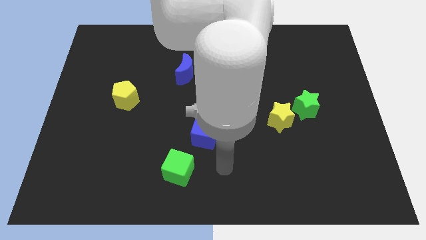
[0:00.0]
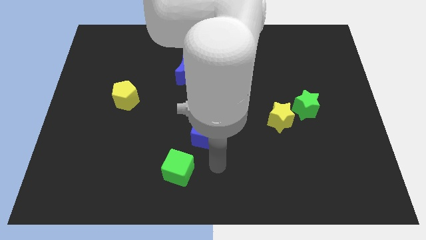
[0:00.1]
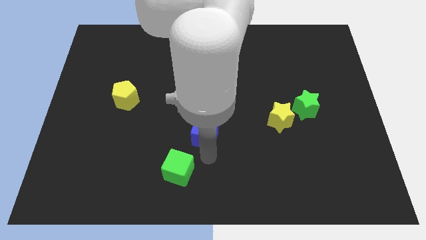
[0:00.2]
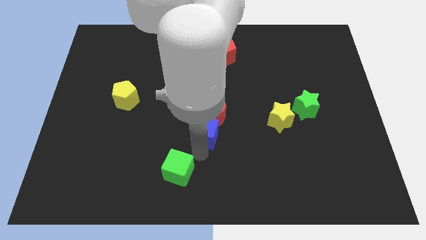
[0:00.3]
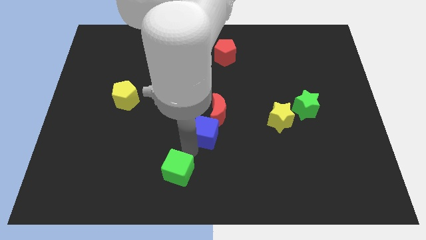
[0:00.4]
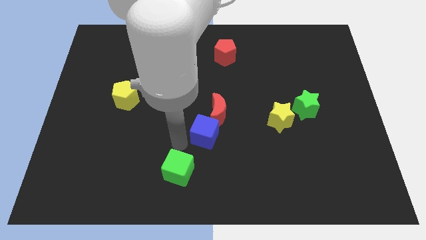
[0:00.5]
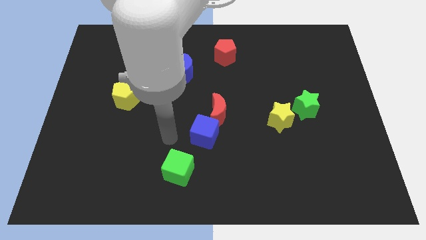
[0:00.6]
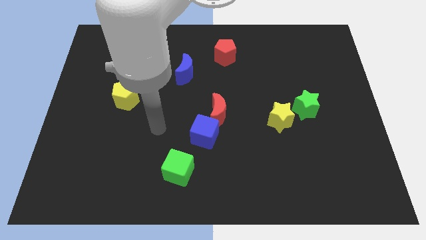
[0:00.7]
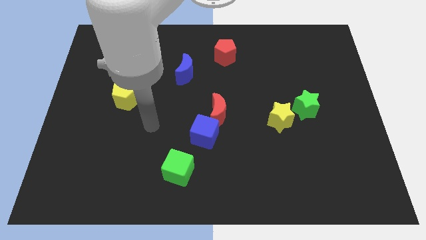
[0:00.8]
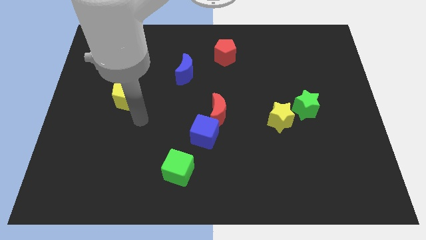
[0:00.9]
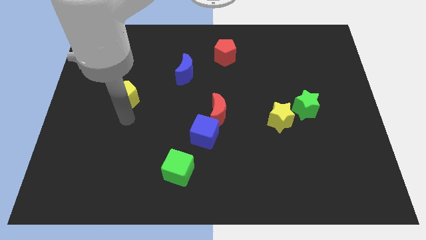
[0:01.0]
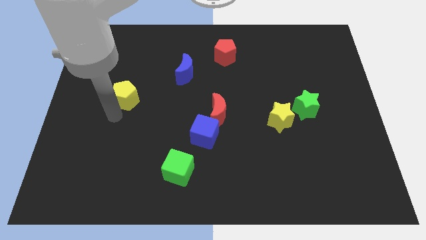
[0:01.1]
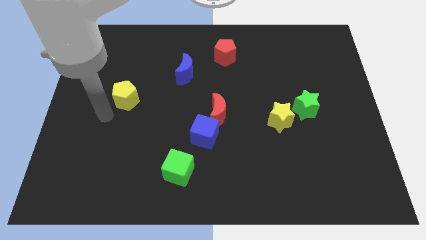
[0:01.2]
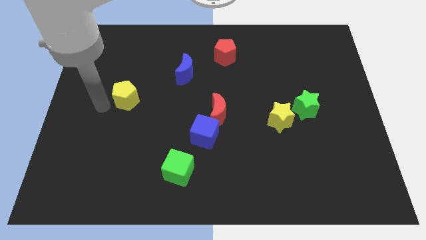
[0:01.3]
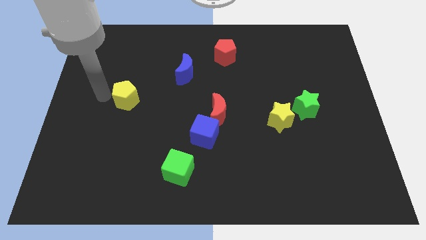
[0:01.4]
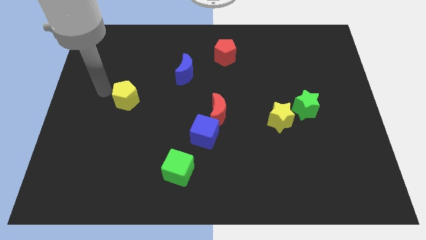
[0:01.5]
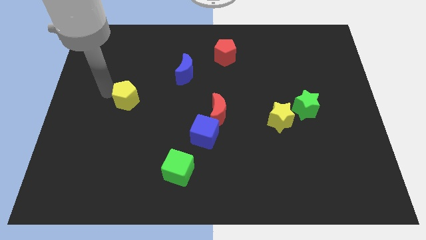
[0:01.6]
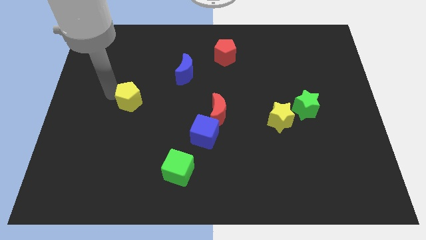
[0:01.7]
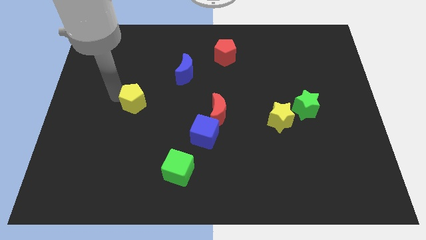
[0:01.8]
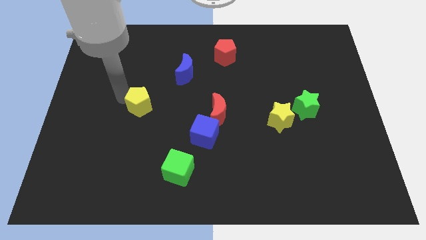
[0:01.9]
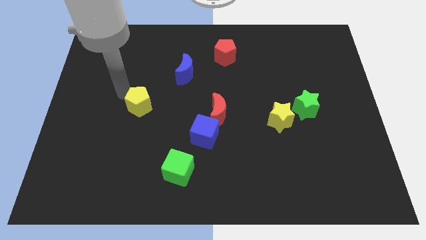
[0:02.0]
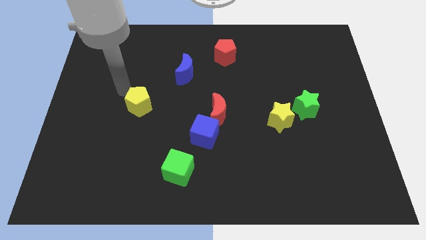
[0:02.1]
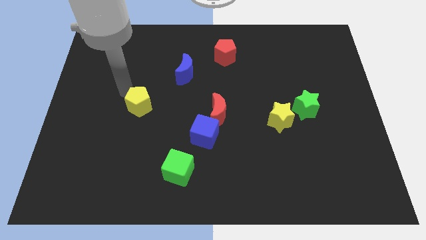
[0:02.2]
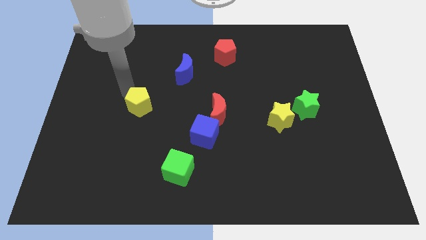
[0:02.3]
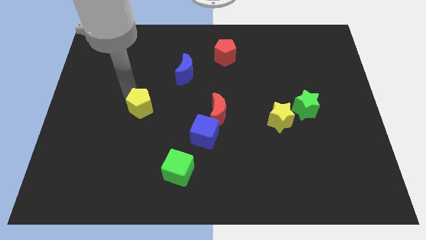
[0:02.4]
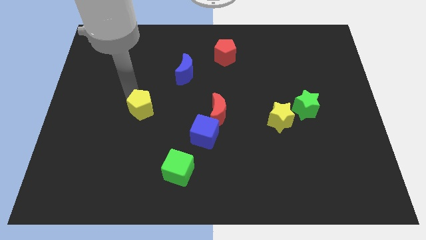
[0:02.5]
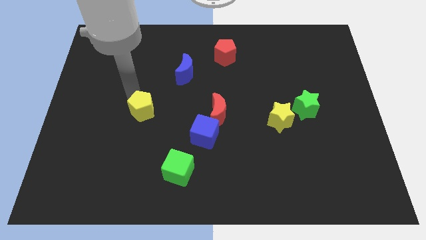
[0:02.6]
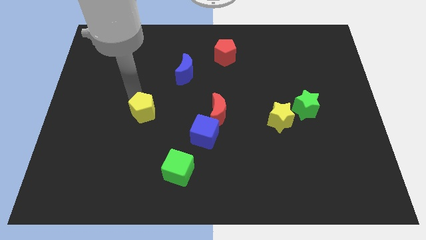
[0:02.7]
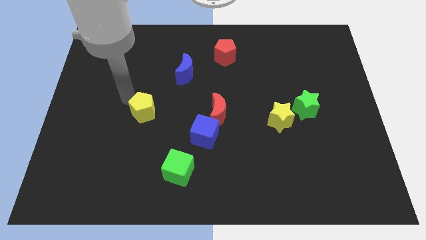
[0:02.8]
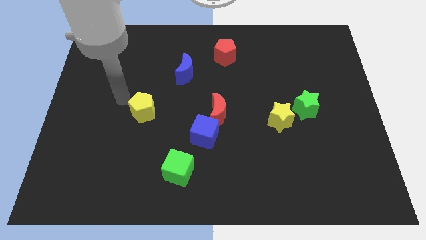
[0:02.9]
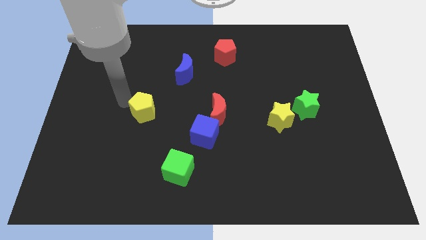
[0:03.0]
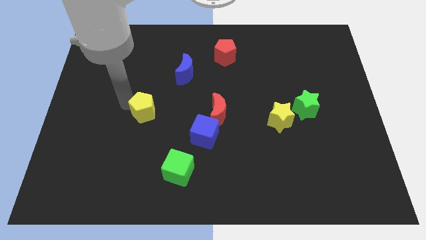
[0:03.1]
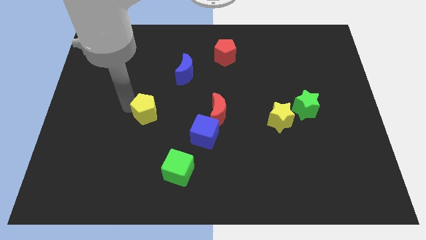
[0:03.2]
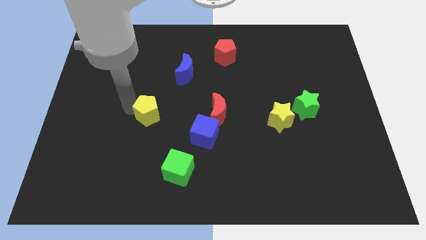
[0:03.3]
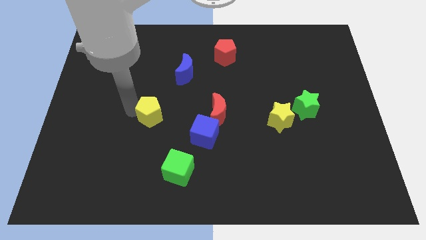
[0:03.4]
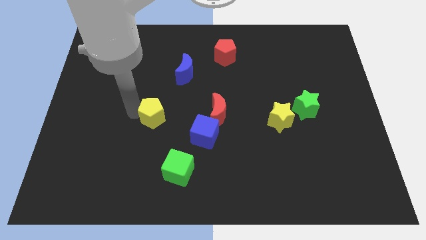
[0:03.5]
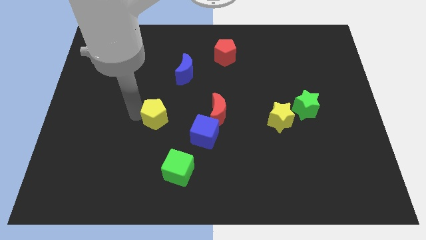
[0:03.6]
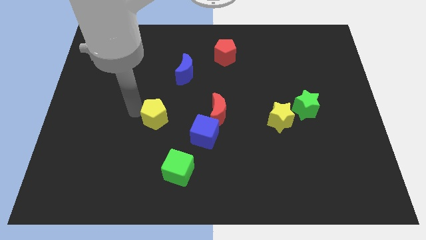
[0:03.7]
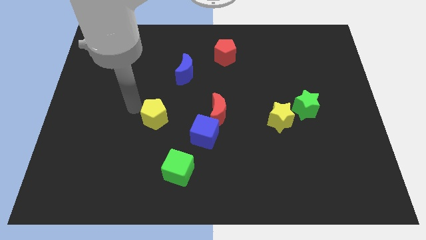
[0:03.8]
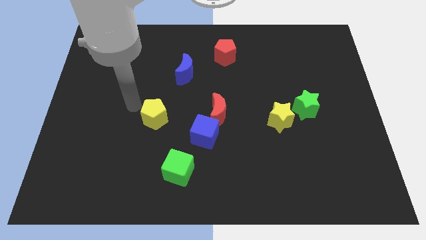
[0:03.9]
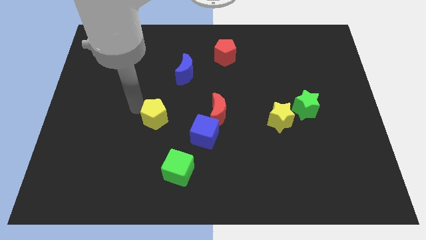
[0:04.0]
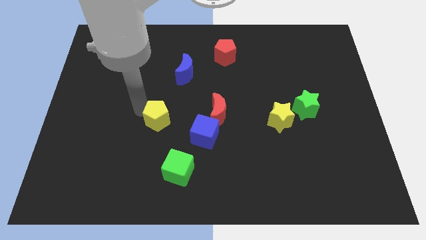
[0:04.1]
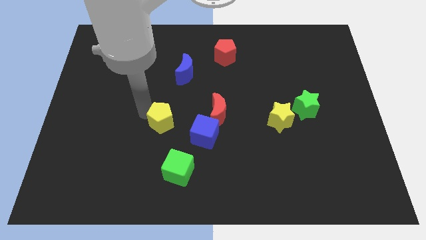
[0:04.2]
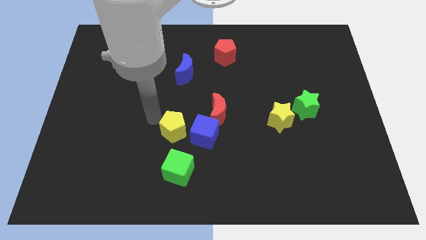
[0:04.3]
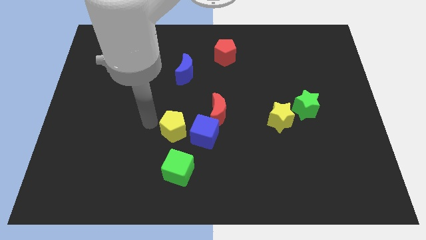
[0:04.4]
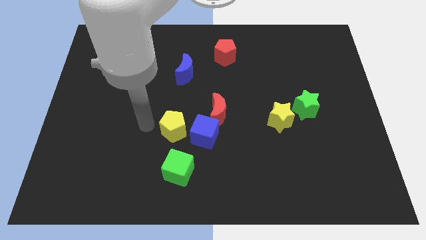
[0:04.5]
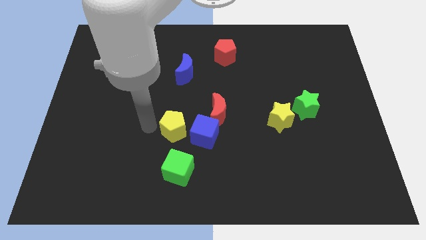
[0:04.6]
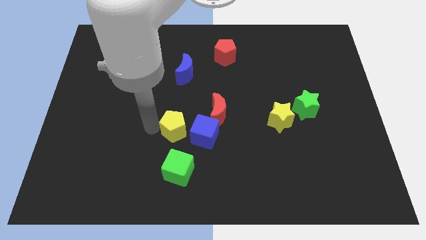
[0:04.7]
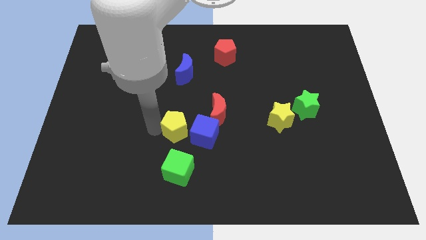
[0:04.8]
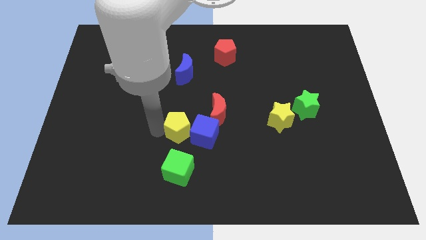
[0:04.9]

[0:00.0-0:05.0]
put the yellow pentagon to the blue cube

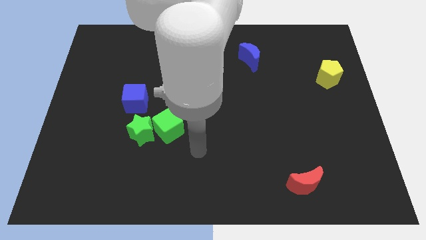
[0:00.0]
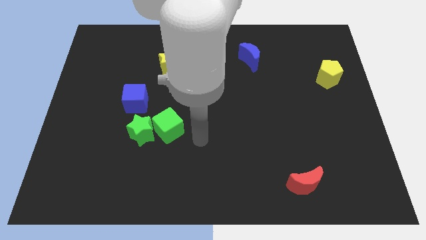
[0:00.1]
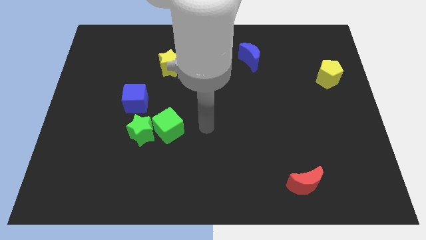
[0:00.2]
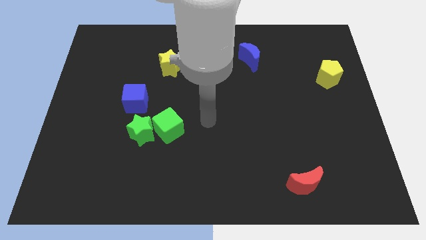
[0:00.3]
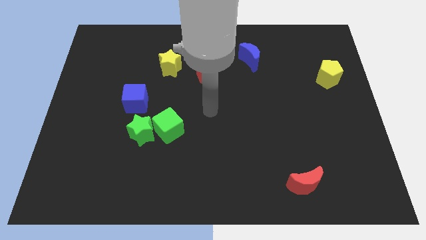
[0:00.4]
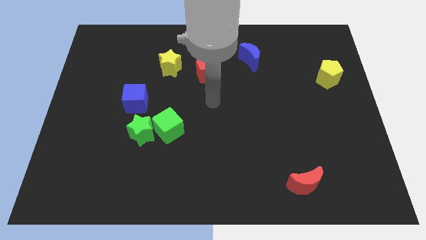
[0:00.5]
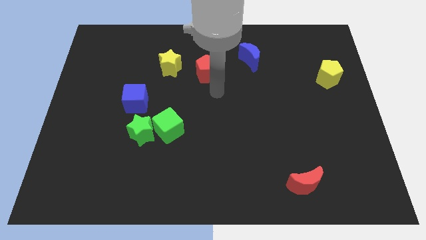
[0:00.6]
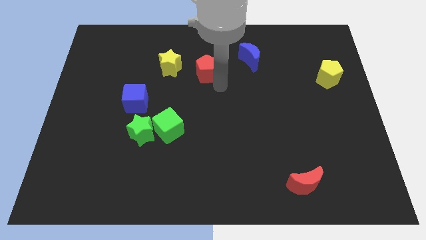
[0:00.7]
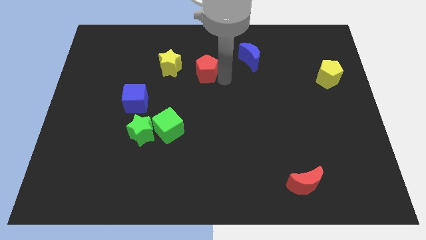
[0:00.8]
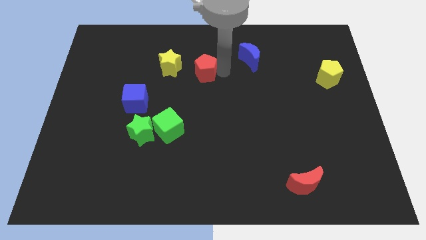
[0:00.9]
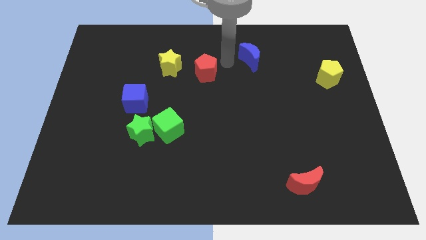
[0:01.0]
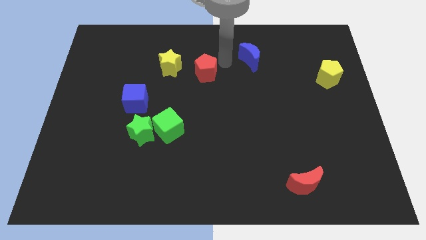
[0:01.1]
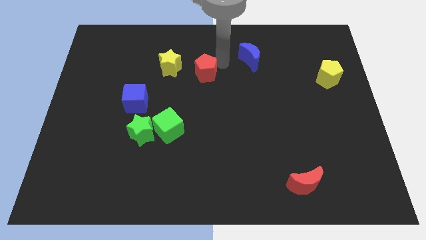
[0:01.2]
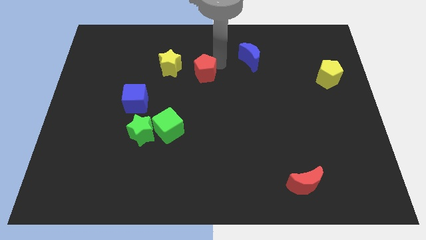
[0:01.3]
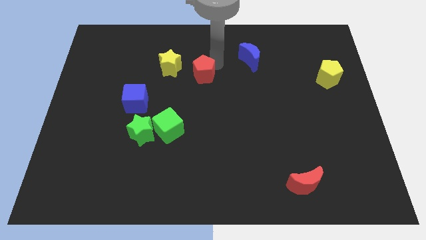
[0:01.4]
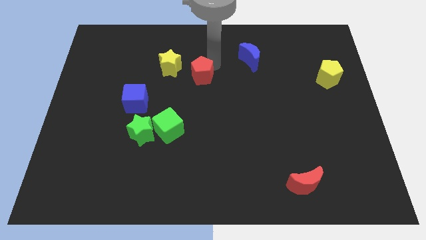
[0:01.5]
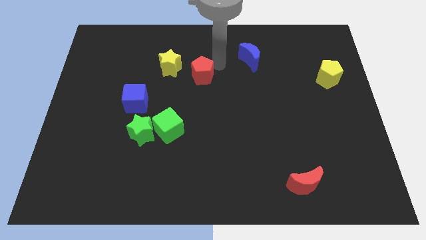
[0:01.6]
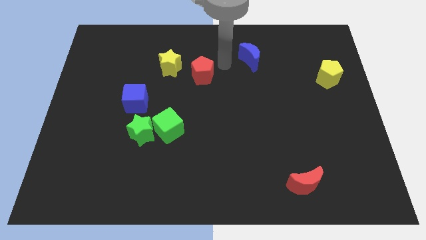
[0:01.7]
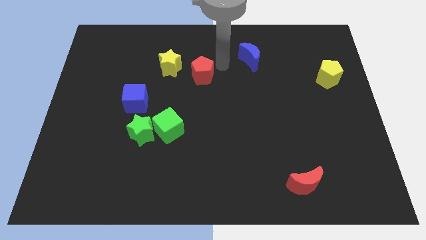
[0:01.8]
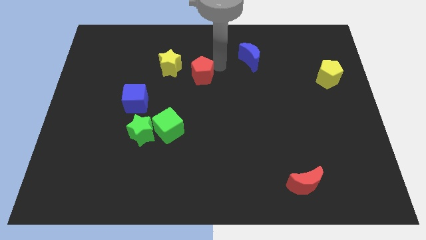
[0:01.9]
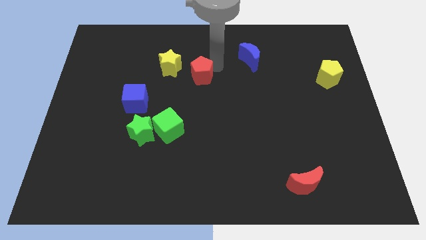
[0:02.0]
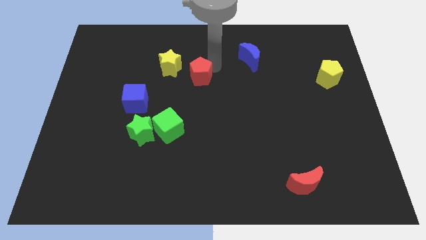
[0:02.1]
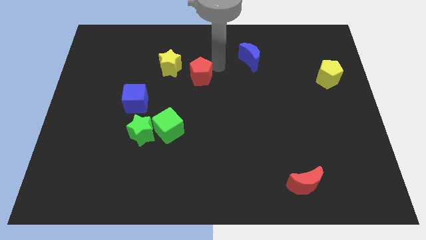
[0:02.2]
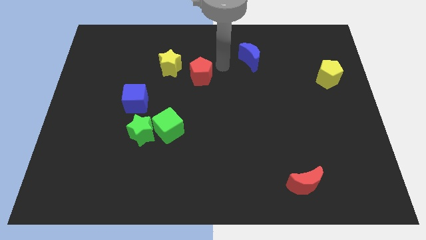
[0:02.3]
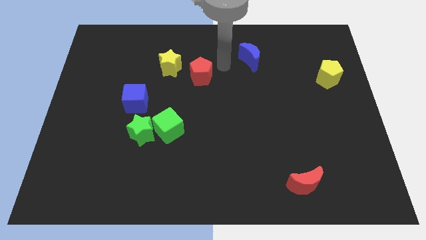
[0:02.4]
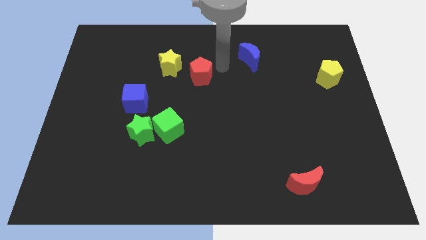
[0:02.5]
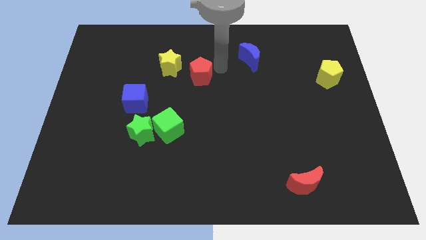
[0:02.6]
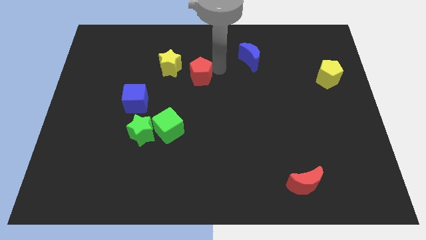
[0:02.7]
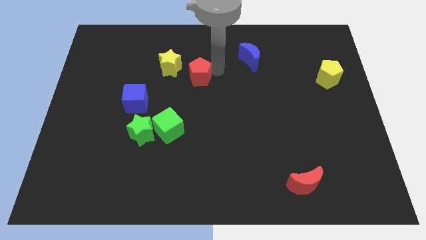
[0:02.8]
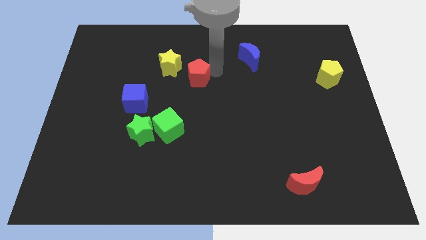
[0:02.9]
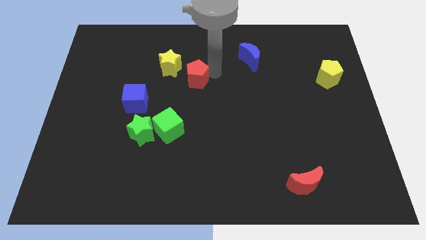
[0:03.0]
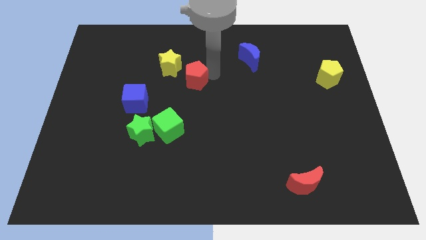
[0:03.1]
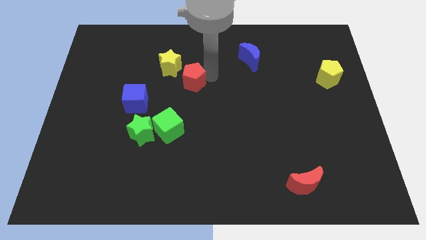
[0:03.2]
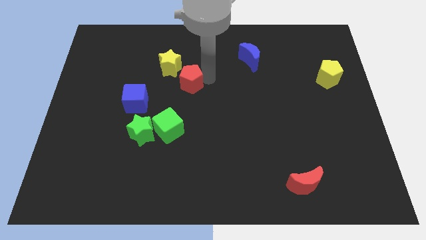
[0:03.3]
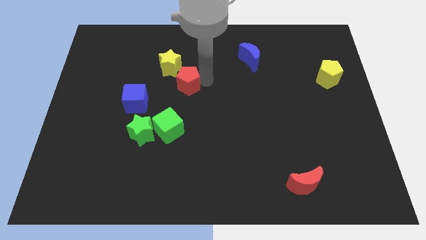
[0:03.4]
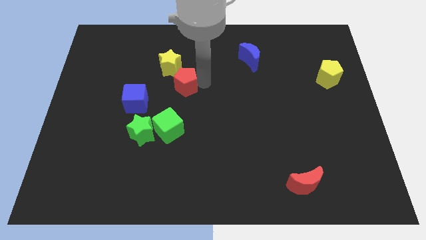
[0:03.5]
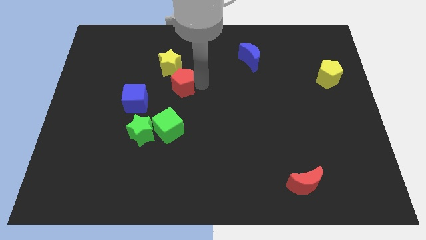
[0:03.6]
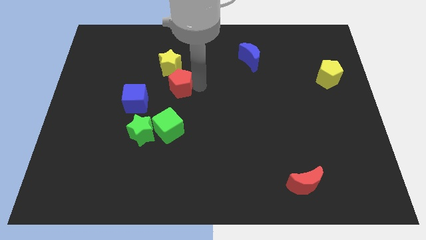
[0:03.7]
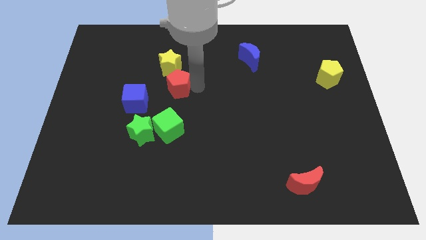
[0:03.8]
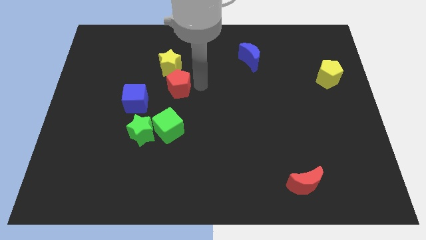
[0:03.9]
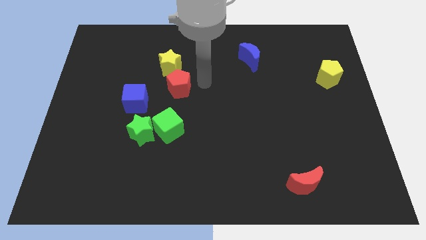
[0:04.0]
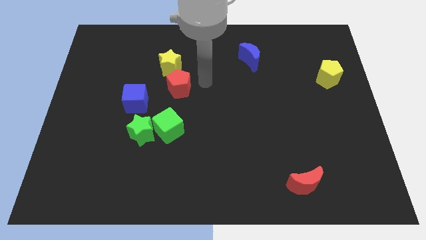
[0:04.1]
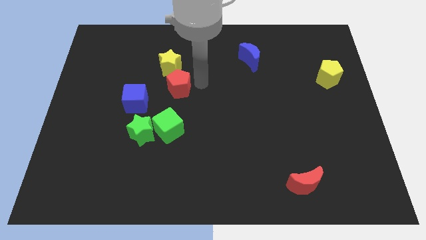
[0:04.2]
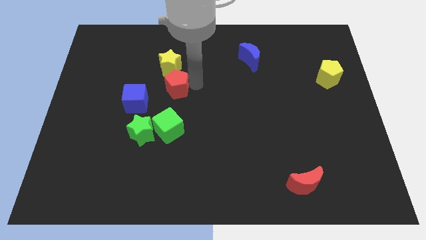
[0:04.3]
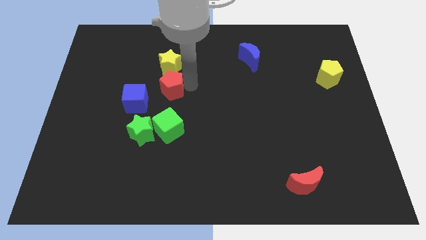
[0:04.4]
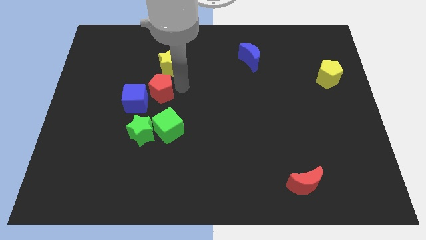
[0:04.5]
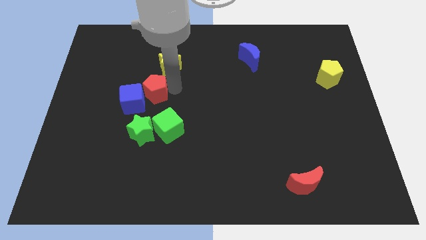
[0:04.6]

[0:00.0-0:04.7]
move the red pentagon next to the blue cube
